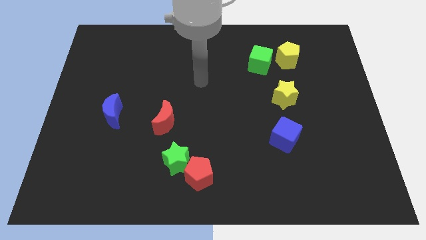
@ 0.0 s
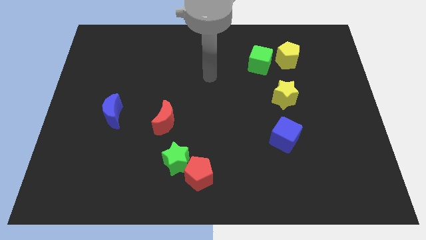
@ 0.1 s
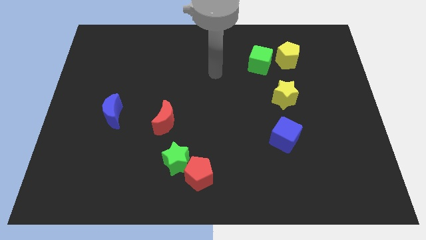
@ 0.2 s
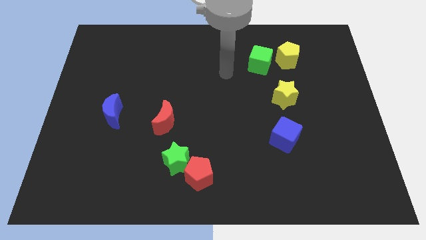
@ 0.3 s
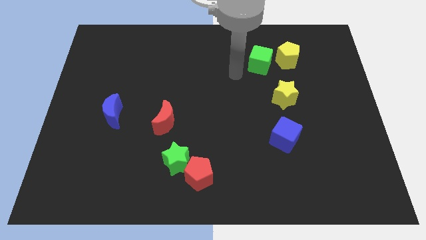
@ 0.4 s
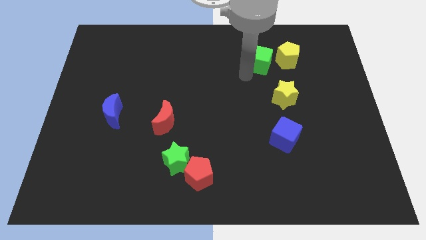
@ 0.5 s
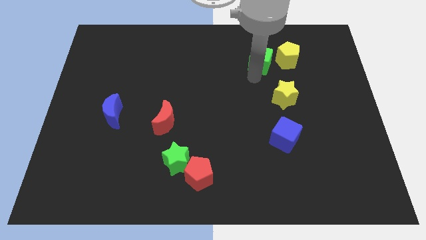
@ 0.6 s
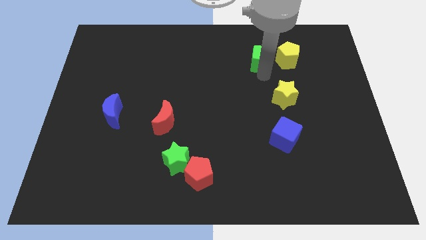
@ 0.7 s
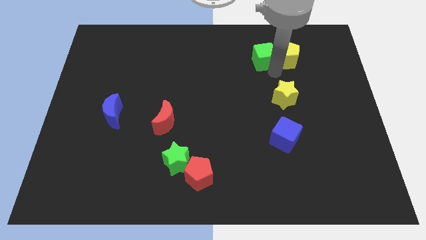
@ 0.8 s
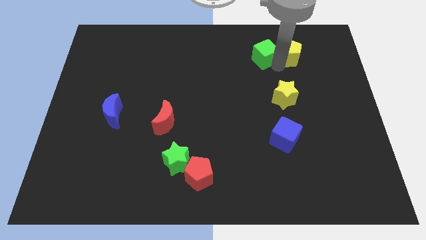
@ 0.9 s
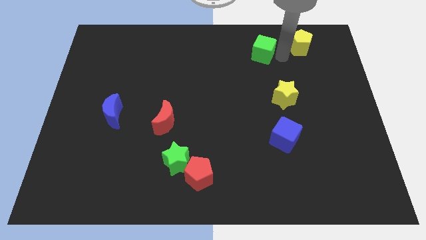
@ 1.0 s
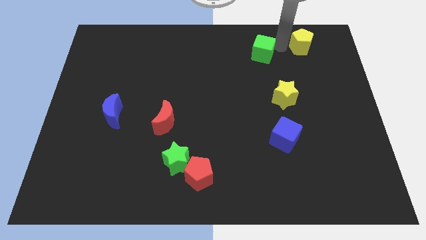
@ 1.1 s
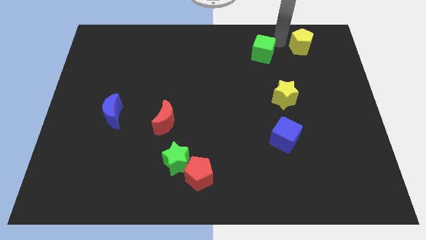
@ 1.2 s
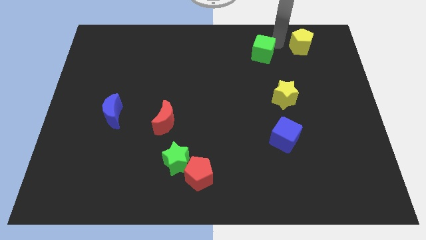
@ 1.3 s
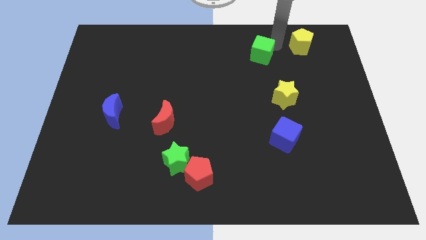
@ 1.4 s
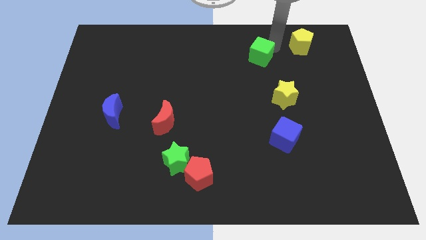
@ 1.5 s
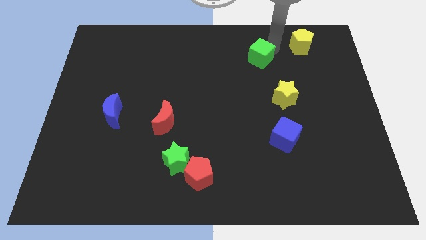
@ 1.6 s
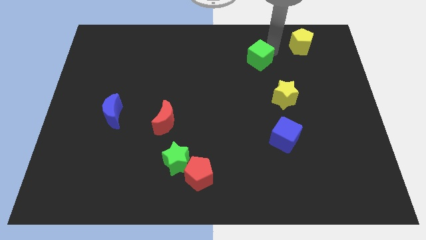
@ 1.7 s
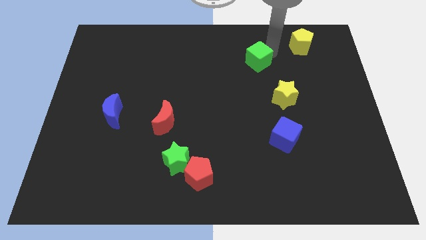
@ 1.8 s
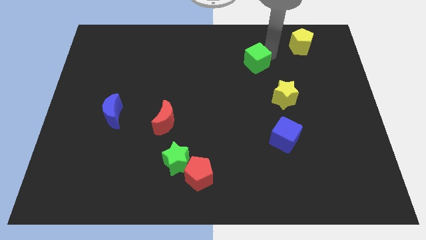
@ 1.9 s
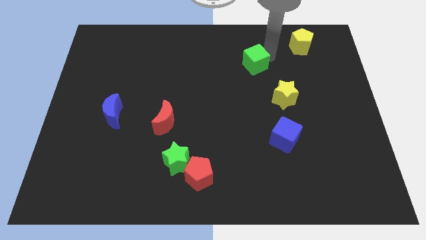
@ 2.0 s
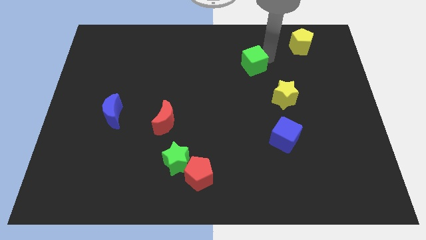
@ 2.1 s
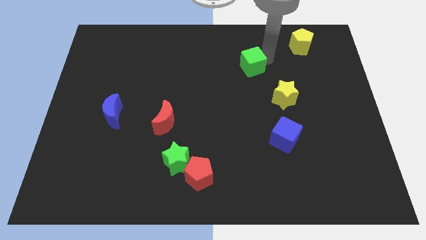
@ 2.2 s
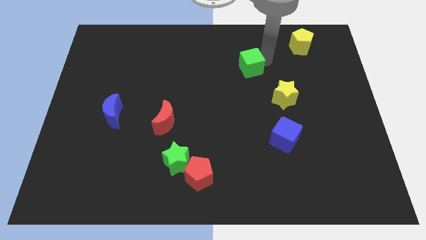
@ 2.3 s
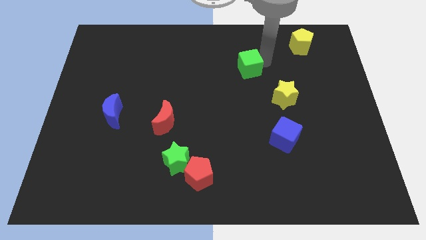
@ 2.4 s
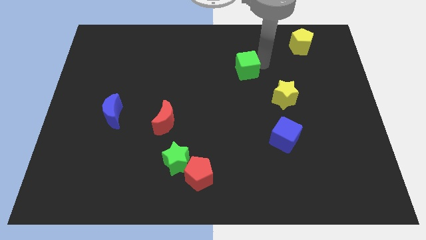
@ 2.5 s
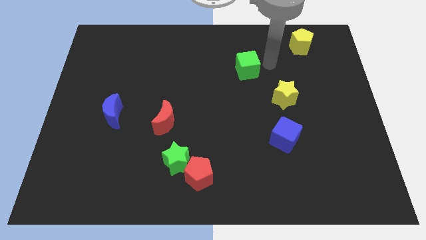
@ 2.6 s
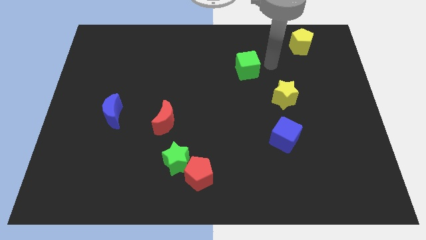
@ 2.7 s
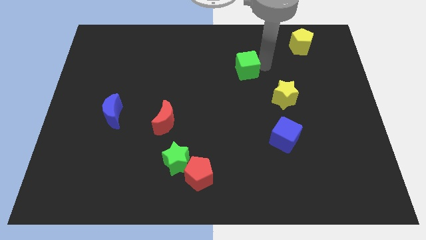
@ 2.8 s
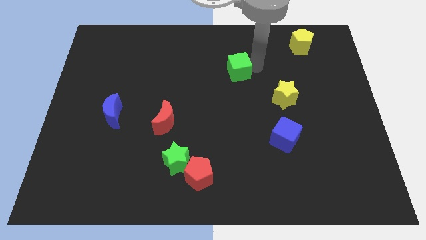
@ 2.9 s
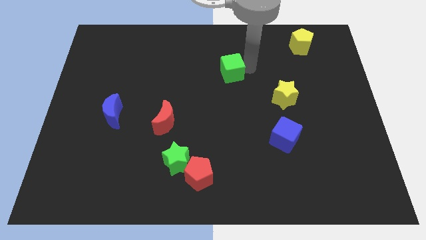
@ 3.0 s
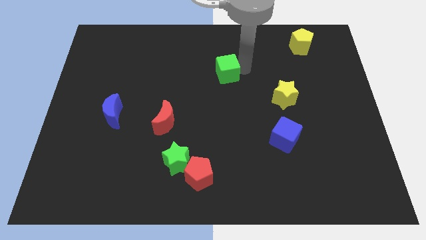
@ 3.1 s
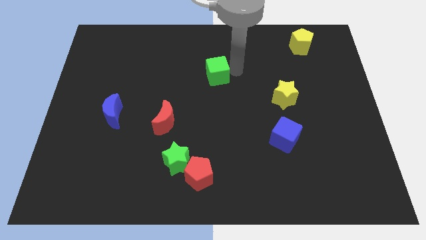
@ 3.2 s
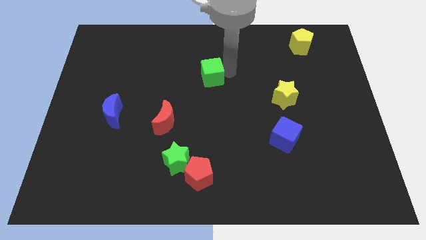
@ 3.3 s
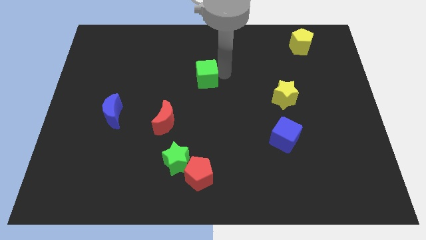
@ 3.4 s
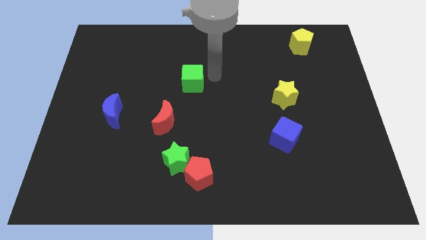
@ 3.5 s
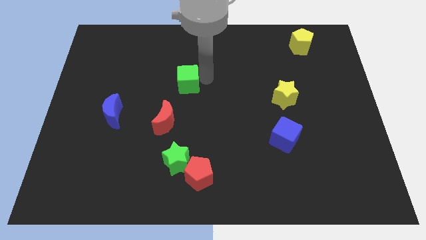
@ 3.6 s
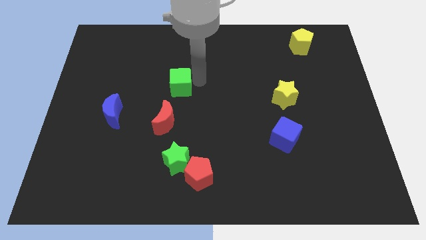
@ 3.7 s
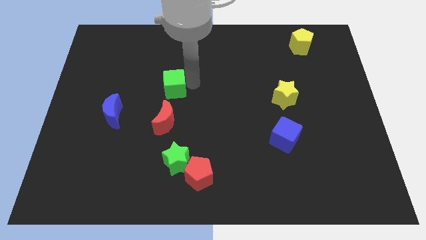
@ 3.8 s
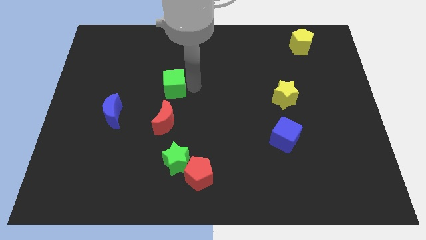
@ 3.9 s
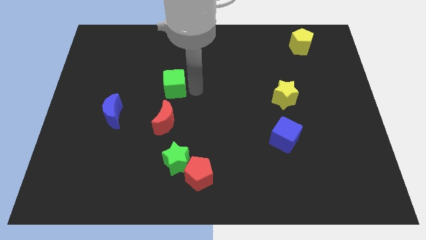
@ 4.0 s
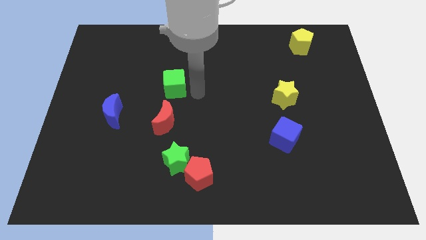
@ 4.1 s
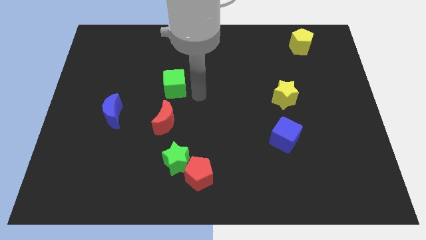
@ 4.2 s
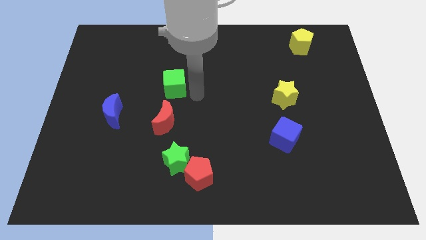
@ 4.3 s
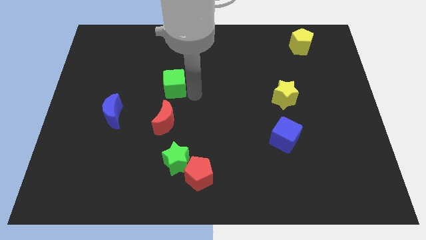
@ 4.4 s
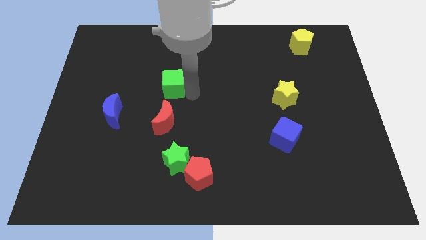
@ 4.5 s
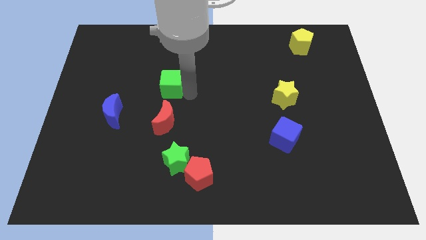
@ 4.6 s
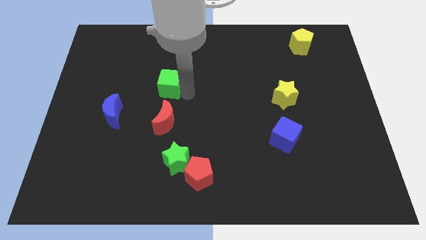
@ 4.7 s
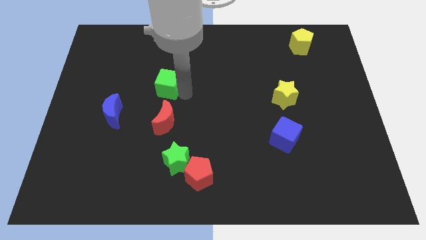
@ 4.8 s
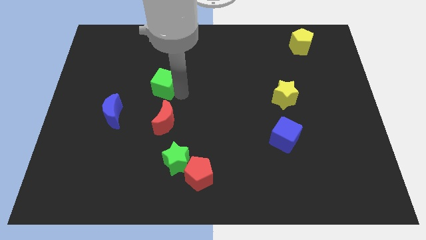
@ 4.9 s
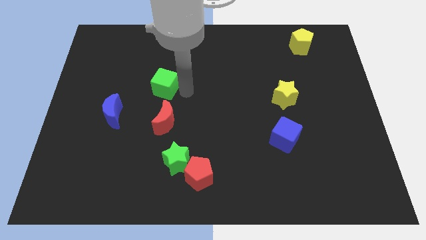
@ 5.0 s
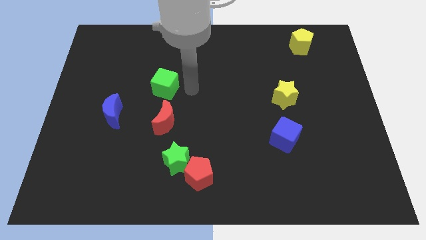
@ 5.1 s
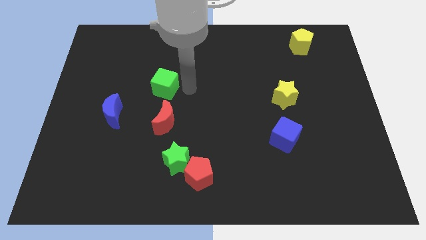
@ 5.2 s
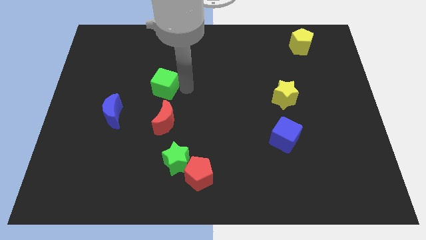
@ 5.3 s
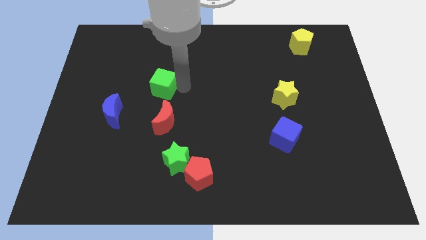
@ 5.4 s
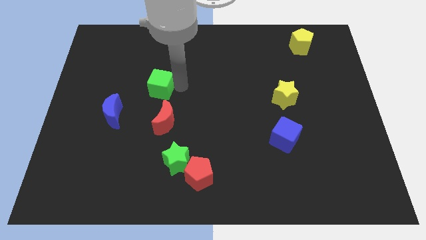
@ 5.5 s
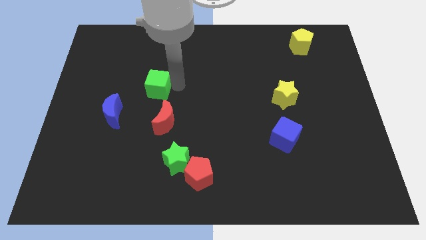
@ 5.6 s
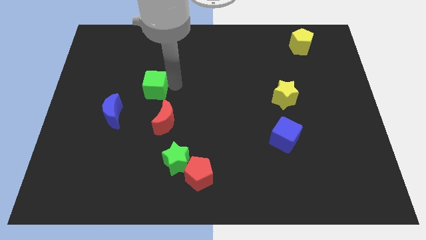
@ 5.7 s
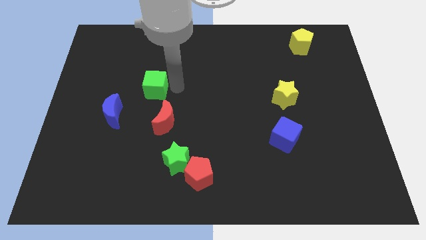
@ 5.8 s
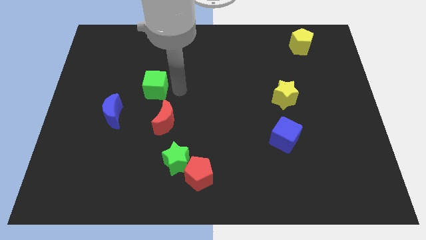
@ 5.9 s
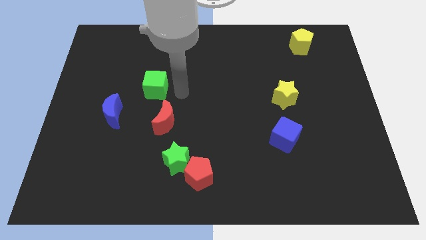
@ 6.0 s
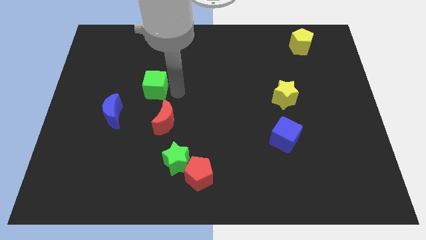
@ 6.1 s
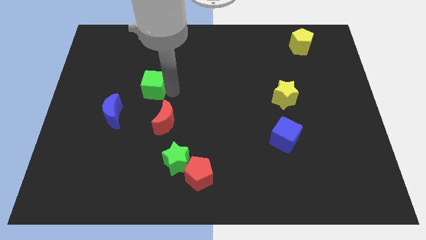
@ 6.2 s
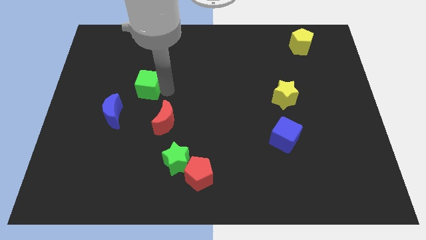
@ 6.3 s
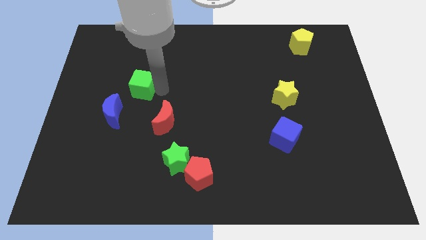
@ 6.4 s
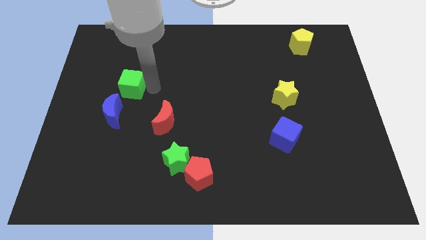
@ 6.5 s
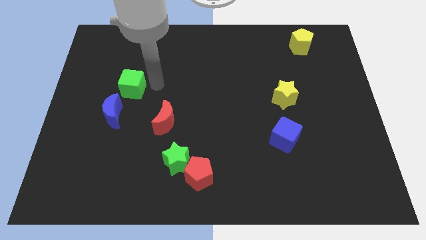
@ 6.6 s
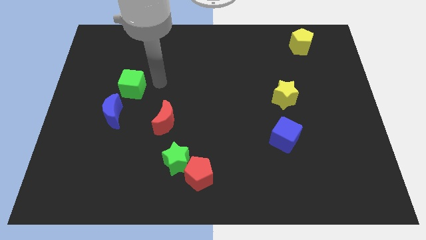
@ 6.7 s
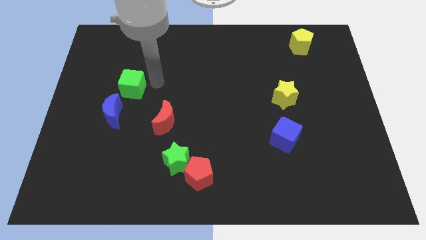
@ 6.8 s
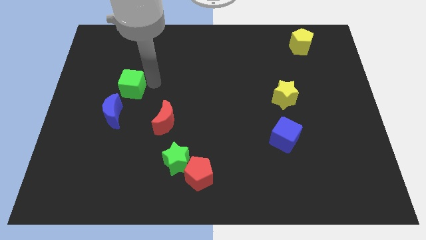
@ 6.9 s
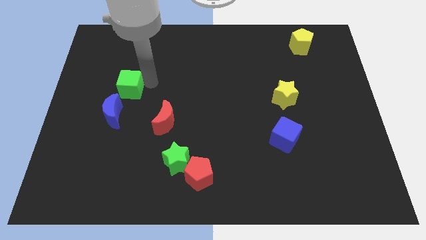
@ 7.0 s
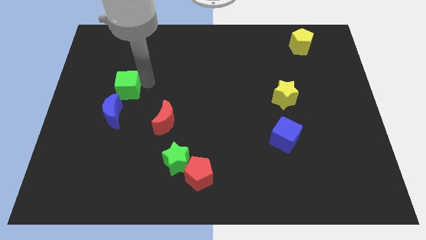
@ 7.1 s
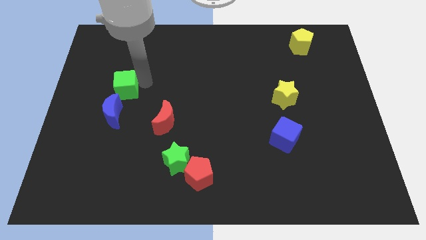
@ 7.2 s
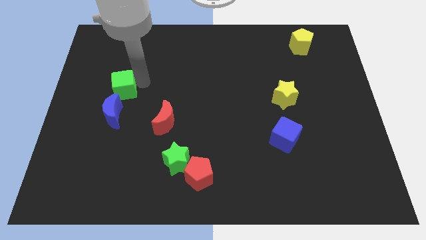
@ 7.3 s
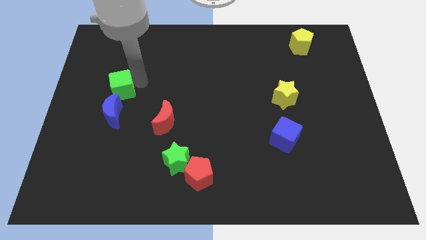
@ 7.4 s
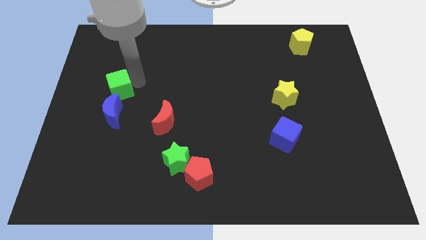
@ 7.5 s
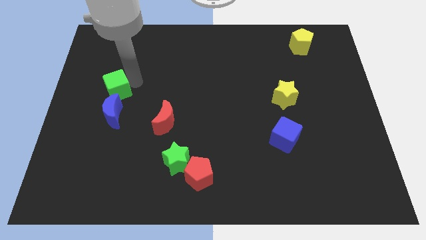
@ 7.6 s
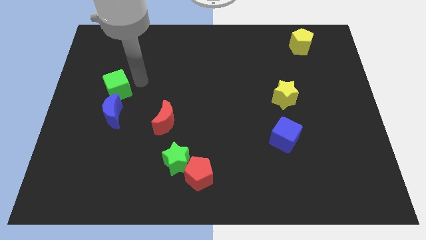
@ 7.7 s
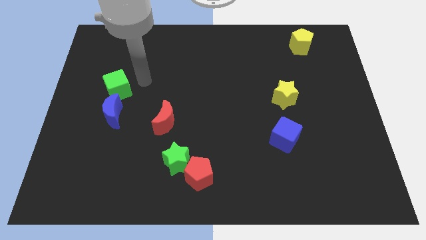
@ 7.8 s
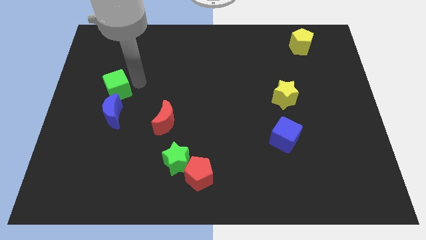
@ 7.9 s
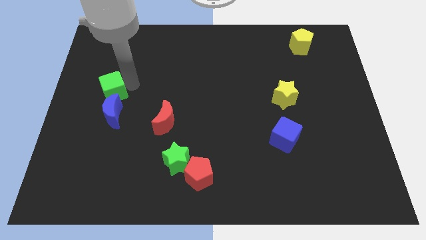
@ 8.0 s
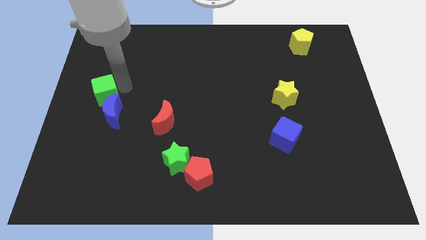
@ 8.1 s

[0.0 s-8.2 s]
put the green cube to the center left

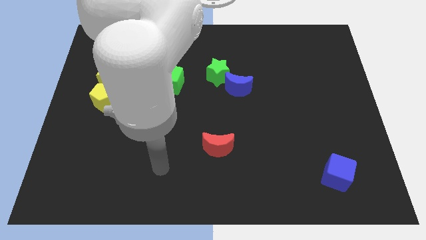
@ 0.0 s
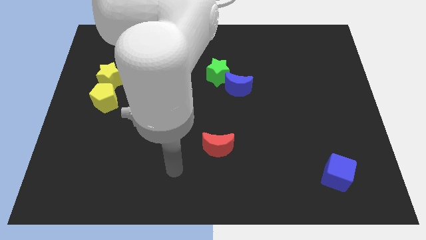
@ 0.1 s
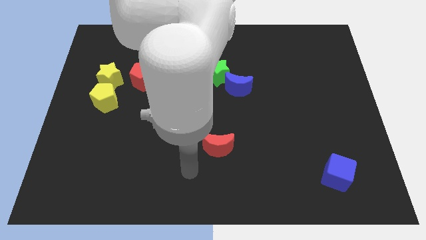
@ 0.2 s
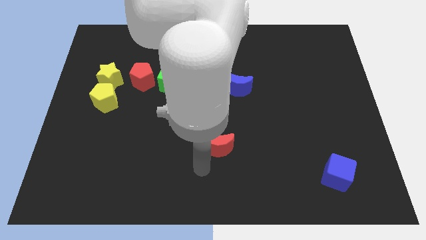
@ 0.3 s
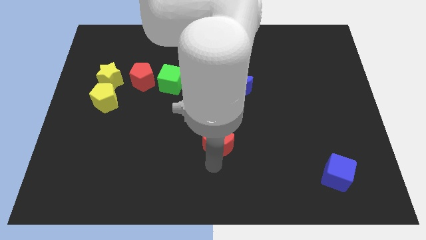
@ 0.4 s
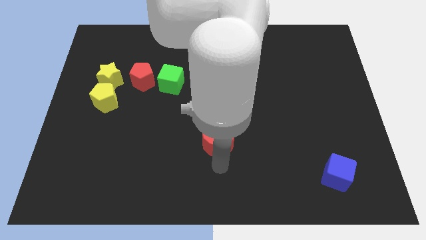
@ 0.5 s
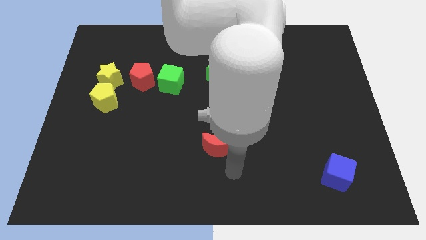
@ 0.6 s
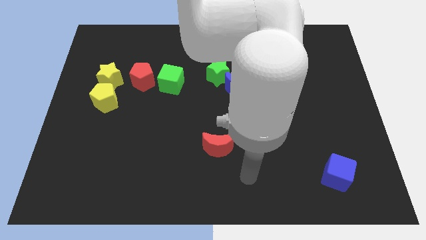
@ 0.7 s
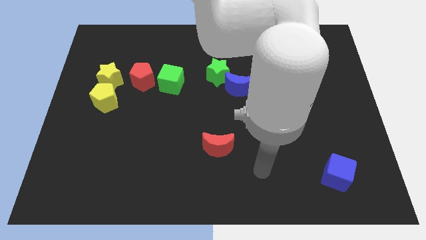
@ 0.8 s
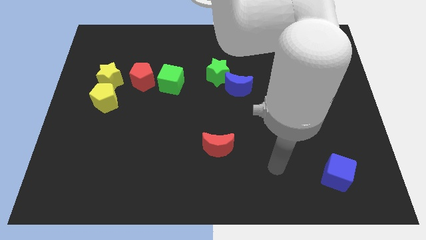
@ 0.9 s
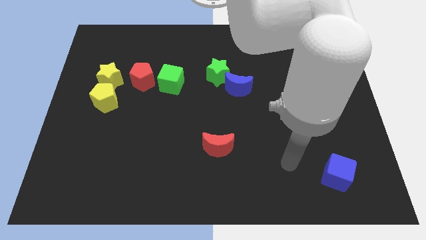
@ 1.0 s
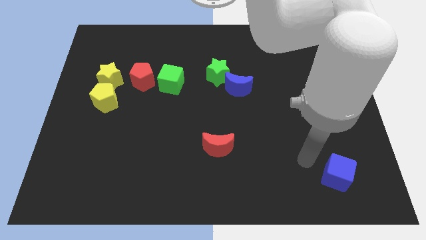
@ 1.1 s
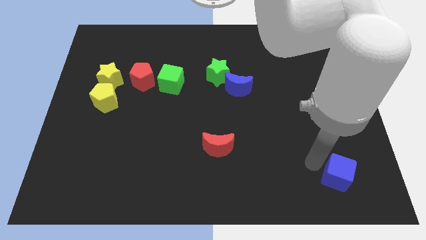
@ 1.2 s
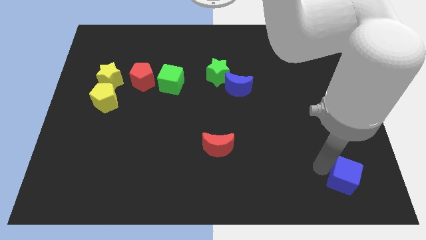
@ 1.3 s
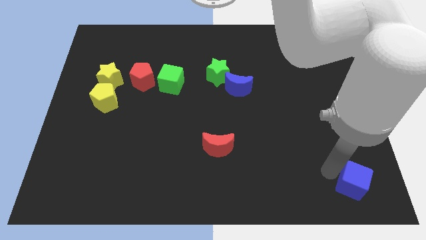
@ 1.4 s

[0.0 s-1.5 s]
move the blue cube to the bottom right of the board
